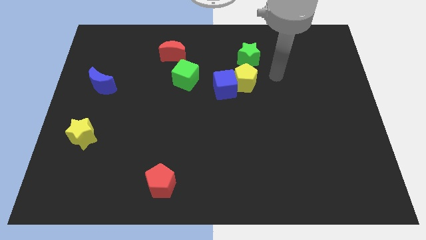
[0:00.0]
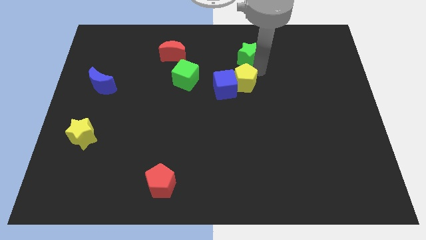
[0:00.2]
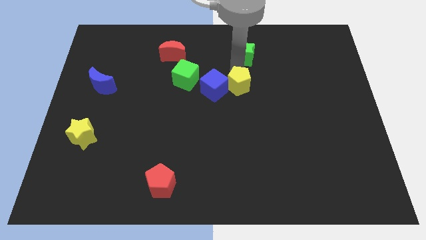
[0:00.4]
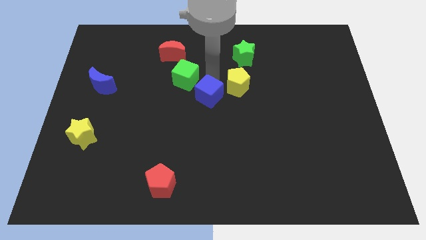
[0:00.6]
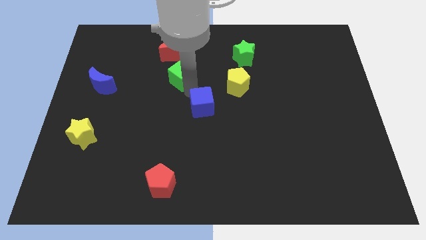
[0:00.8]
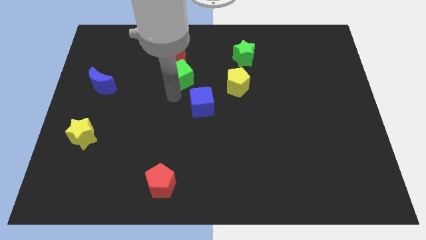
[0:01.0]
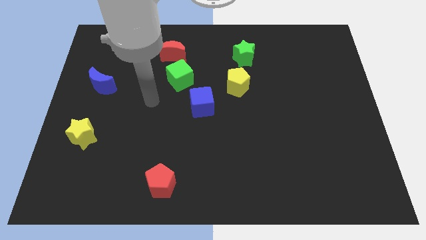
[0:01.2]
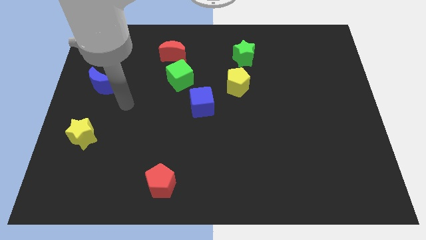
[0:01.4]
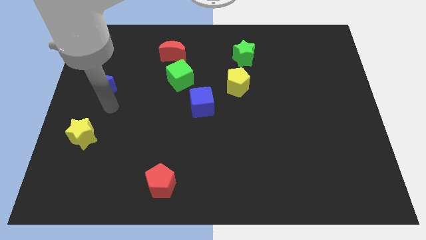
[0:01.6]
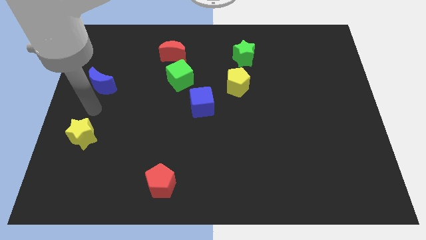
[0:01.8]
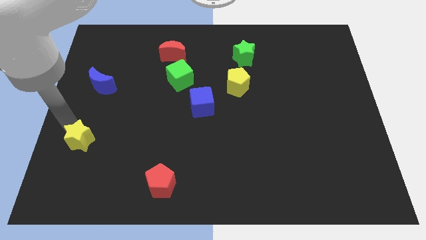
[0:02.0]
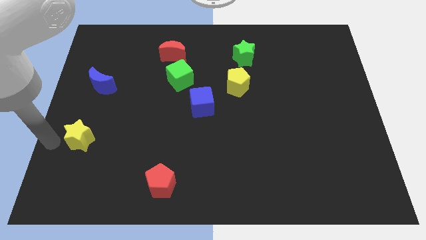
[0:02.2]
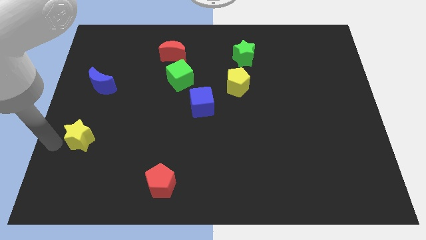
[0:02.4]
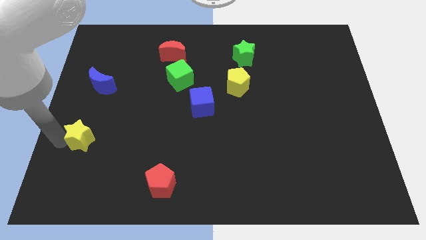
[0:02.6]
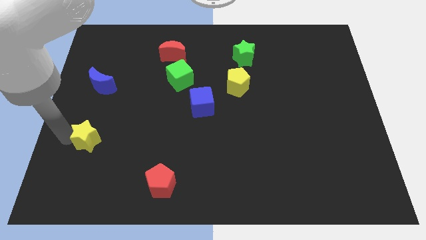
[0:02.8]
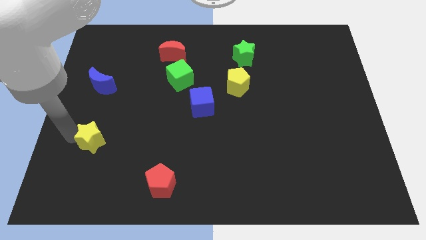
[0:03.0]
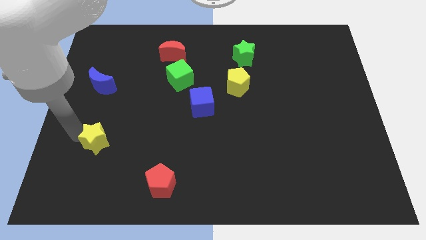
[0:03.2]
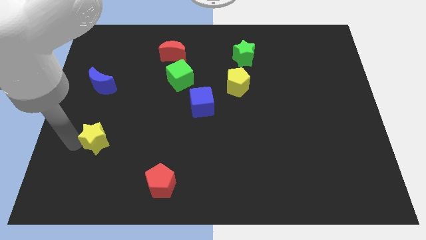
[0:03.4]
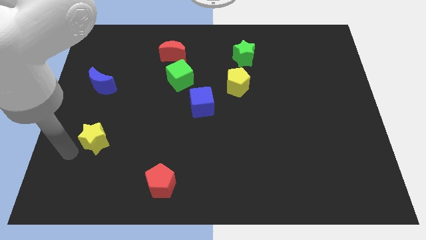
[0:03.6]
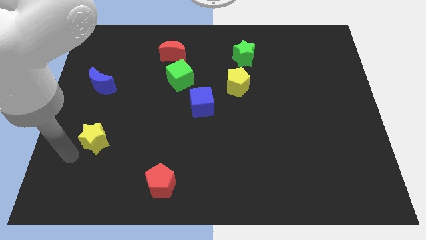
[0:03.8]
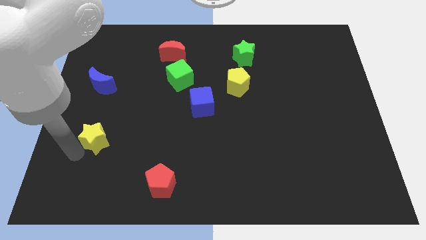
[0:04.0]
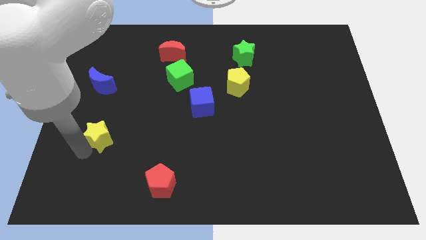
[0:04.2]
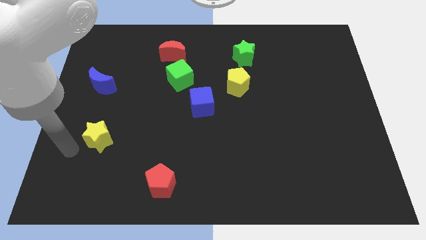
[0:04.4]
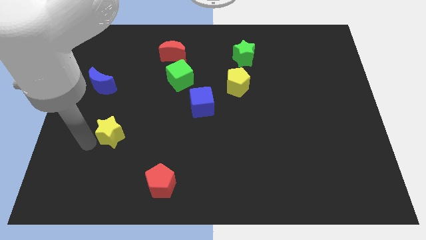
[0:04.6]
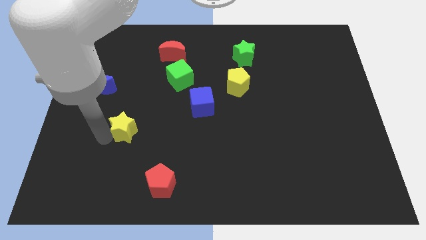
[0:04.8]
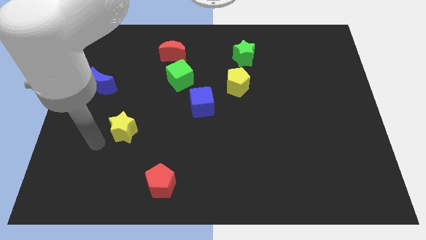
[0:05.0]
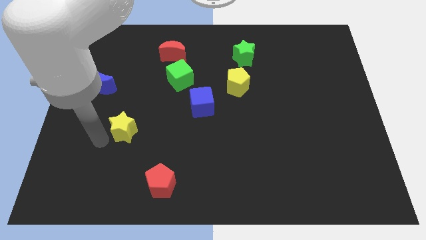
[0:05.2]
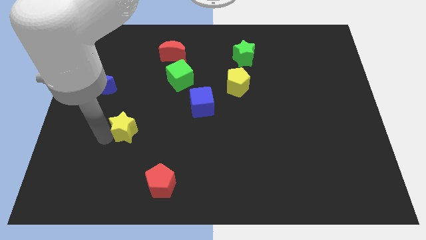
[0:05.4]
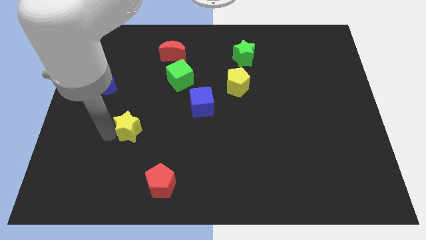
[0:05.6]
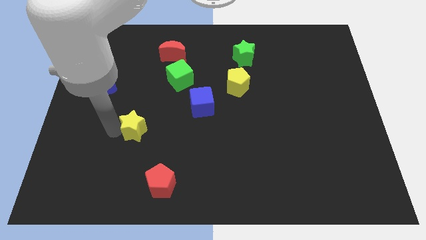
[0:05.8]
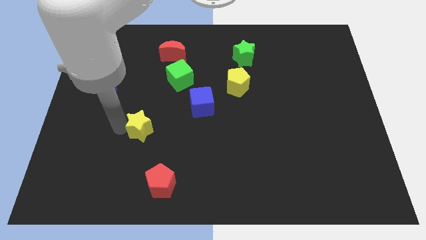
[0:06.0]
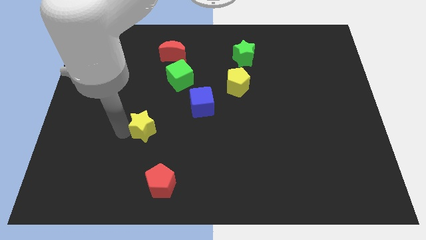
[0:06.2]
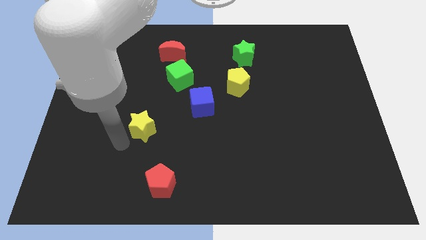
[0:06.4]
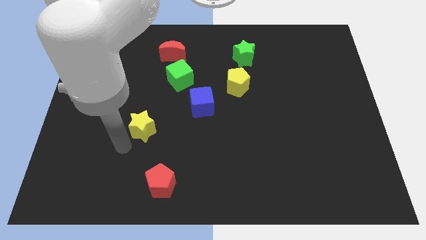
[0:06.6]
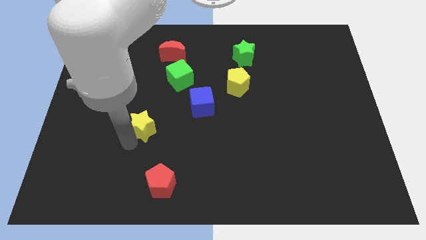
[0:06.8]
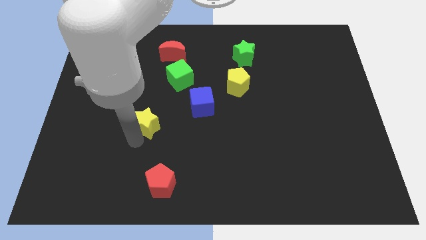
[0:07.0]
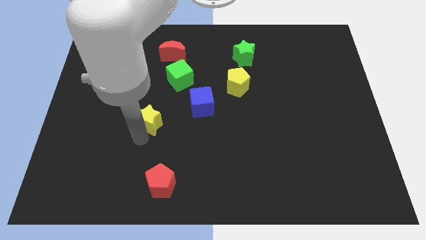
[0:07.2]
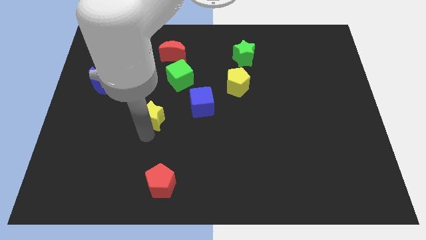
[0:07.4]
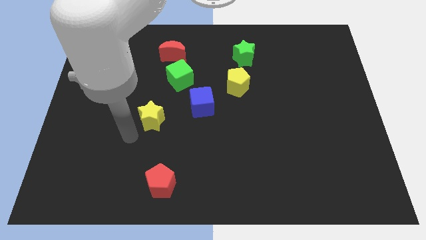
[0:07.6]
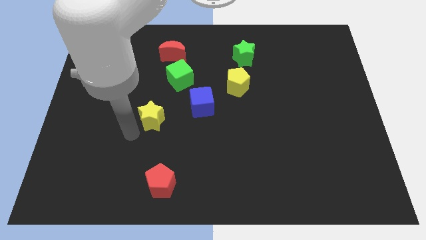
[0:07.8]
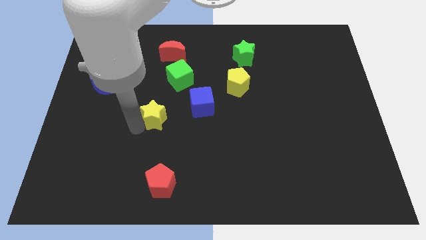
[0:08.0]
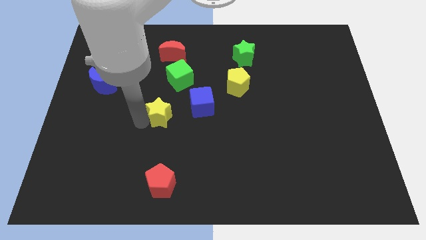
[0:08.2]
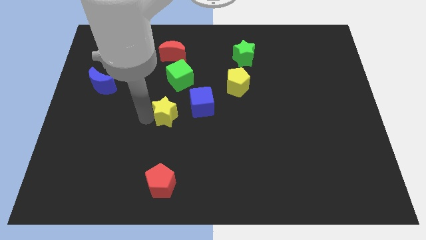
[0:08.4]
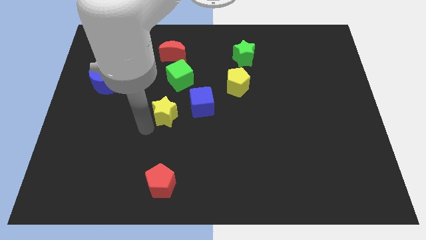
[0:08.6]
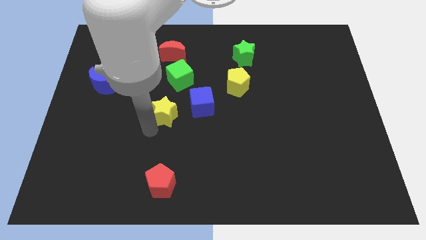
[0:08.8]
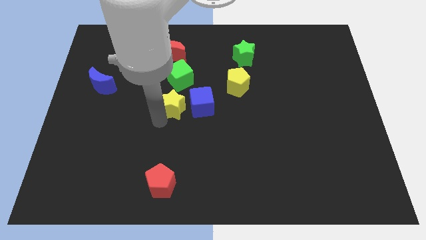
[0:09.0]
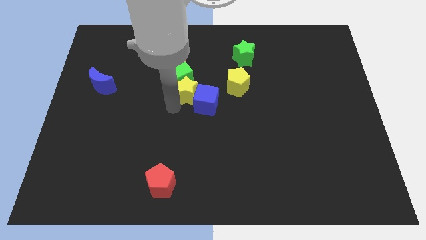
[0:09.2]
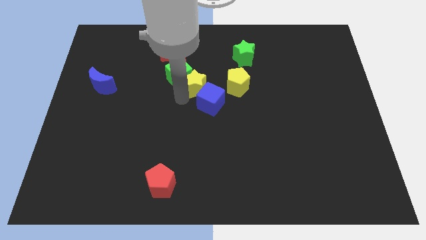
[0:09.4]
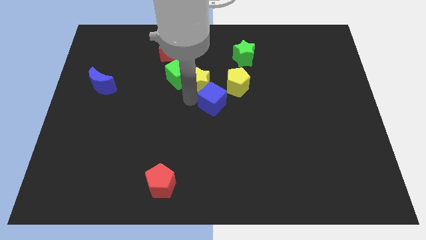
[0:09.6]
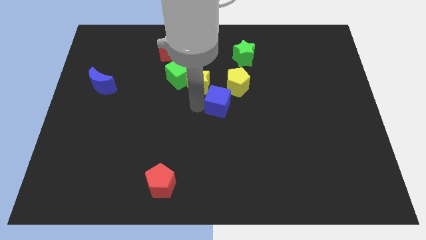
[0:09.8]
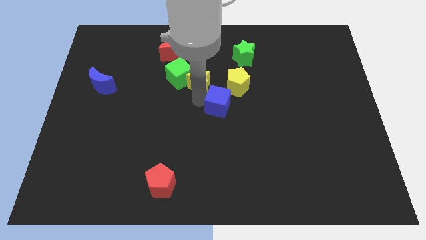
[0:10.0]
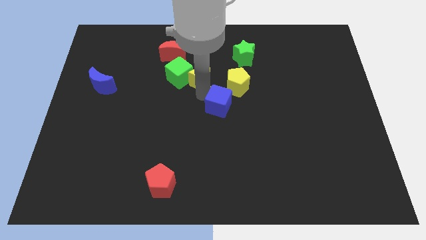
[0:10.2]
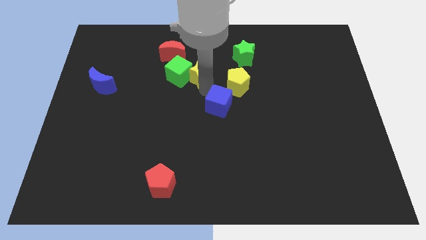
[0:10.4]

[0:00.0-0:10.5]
slide the yellow star to the top right side of the green cube

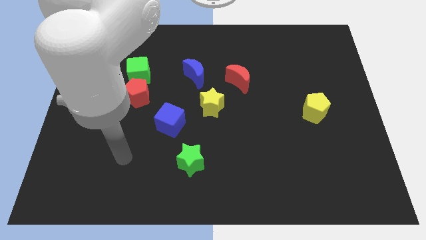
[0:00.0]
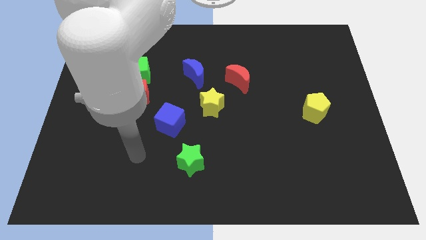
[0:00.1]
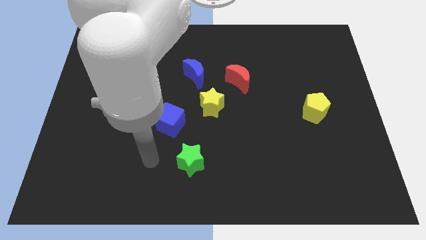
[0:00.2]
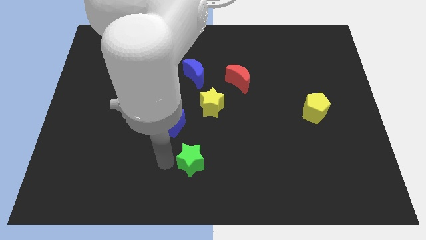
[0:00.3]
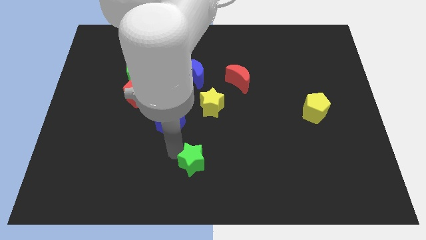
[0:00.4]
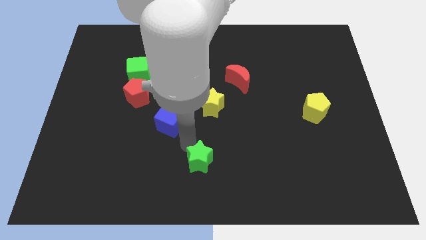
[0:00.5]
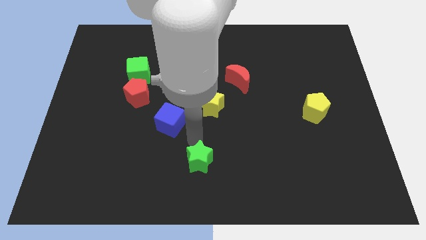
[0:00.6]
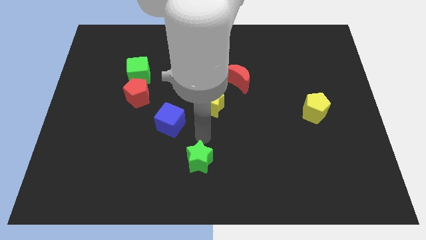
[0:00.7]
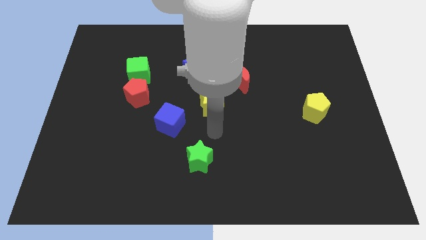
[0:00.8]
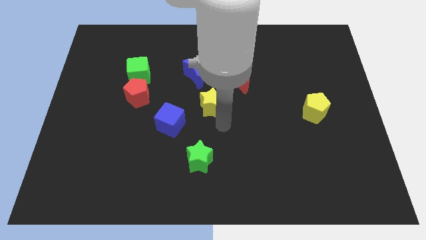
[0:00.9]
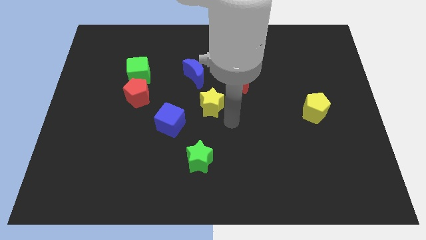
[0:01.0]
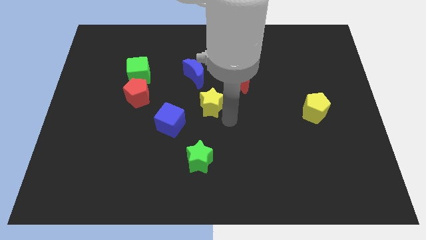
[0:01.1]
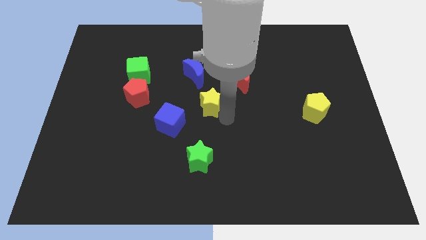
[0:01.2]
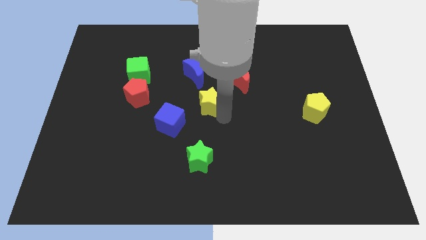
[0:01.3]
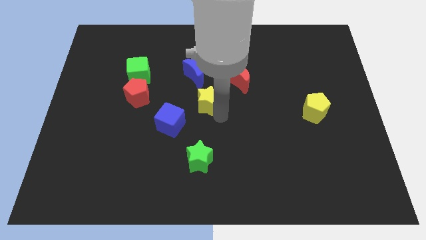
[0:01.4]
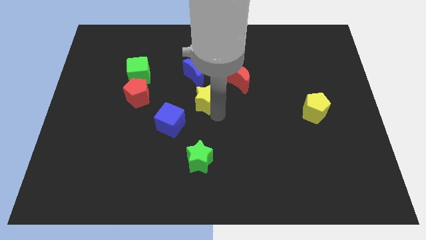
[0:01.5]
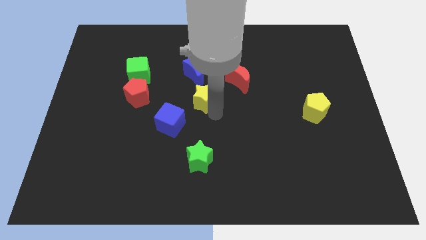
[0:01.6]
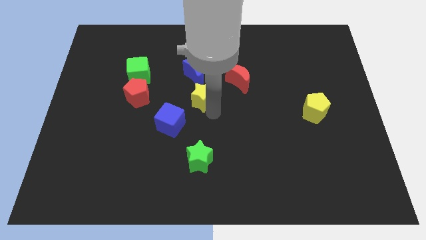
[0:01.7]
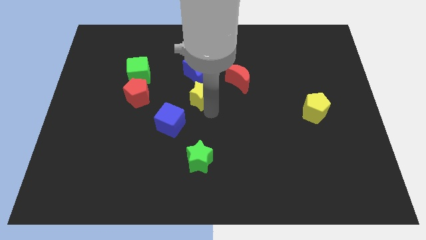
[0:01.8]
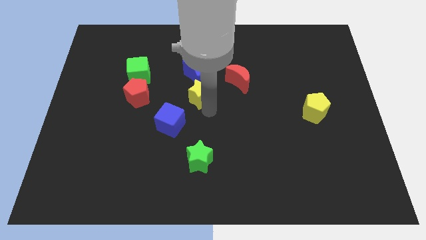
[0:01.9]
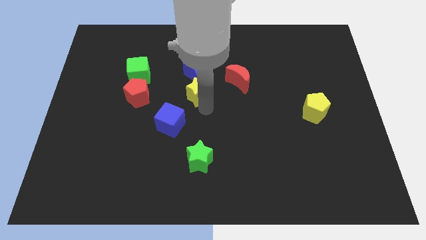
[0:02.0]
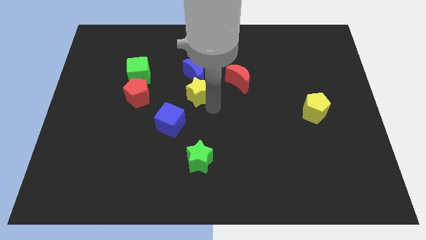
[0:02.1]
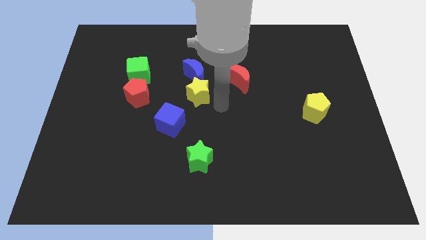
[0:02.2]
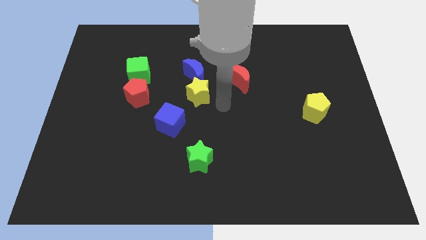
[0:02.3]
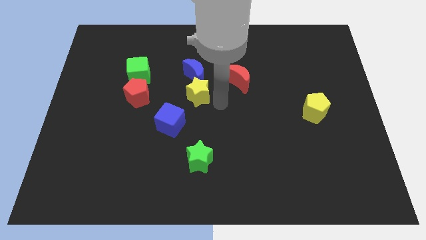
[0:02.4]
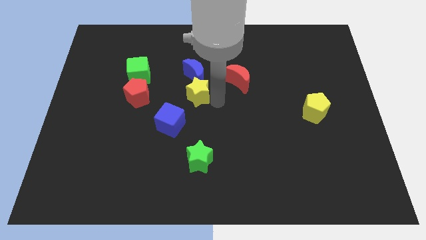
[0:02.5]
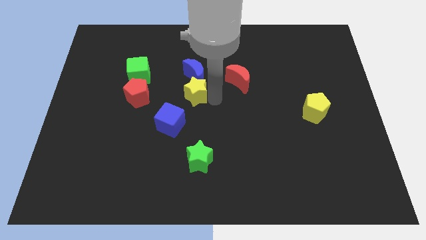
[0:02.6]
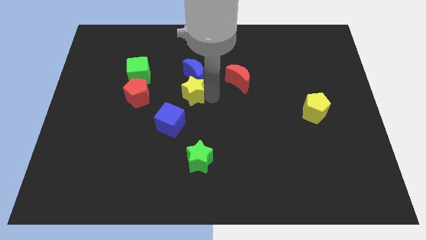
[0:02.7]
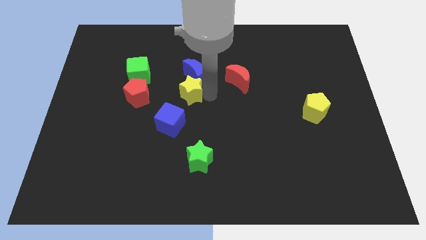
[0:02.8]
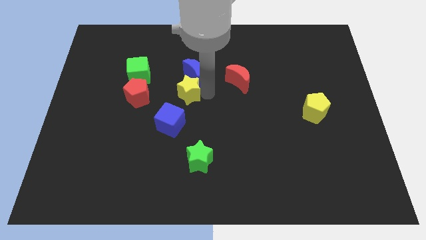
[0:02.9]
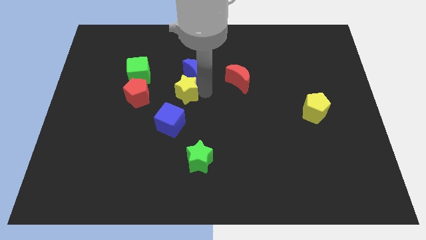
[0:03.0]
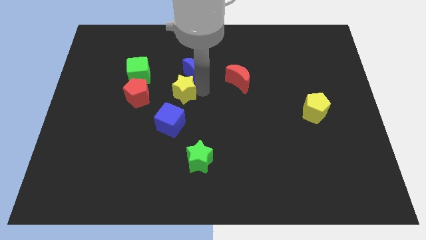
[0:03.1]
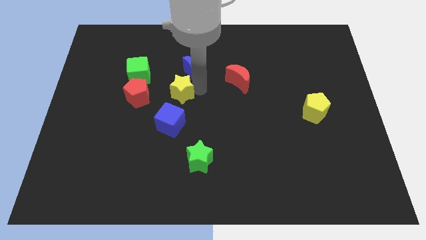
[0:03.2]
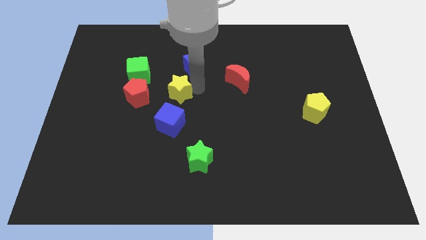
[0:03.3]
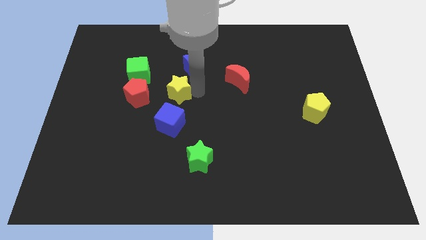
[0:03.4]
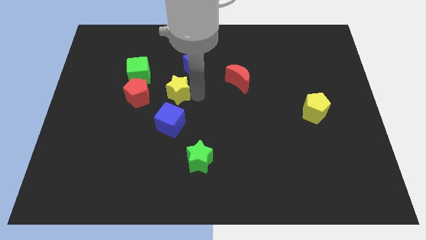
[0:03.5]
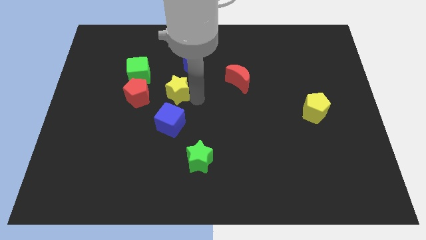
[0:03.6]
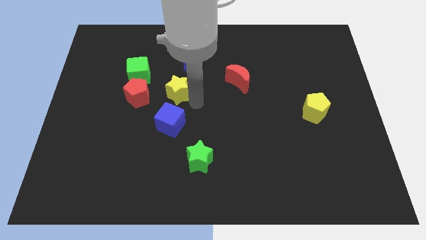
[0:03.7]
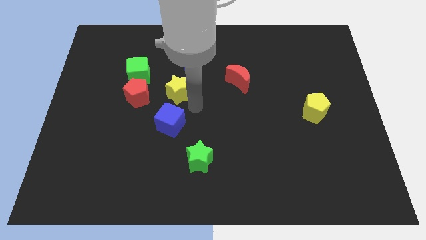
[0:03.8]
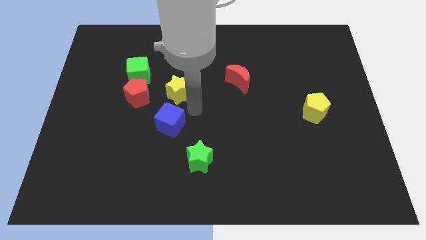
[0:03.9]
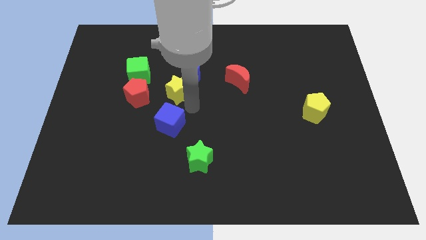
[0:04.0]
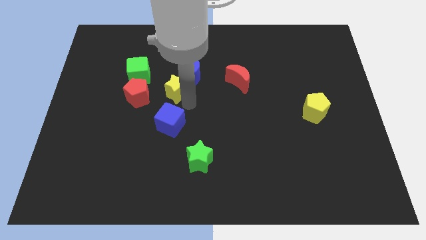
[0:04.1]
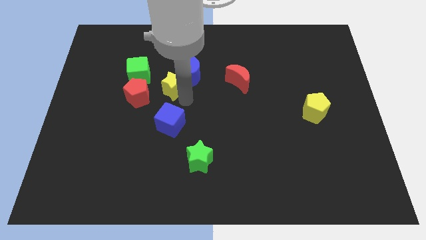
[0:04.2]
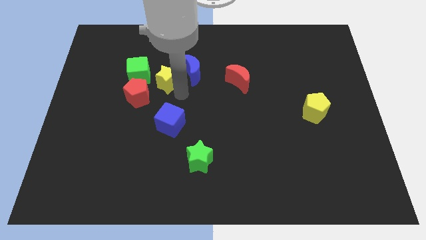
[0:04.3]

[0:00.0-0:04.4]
put the yellow star to the left of the blue moon
